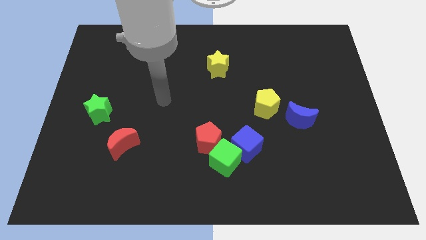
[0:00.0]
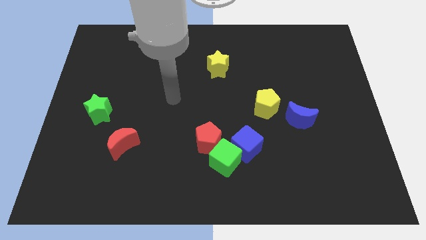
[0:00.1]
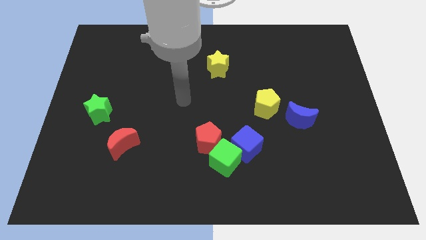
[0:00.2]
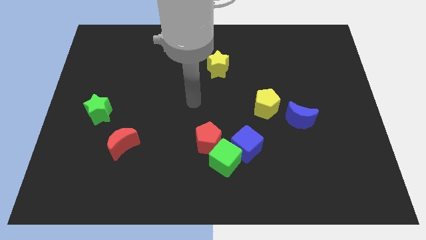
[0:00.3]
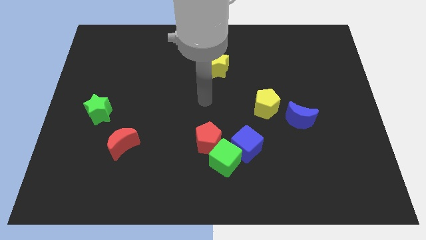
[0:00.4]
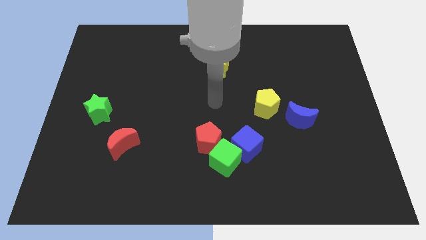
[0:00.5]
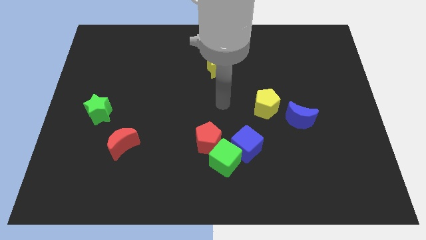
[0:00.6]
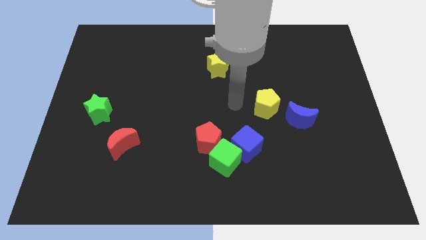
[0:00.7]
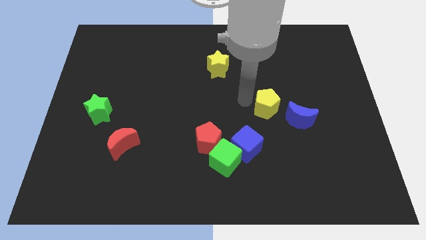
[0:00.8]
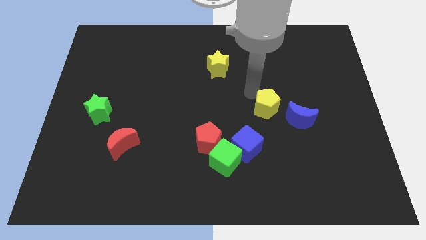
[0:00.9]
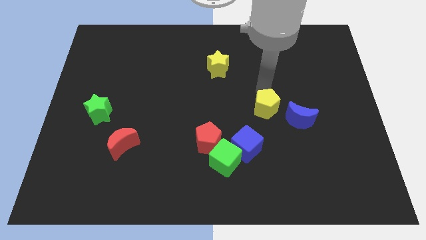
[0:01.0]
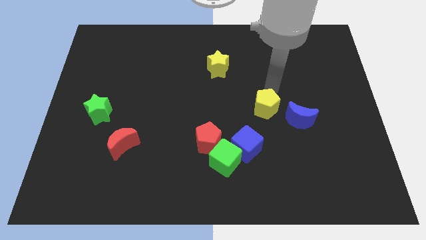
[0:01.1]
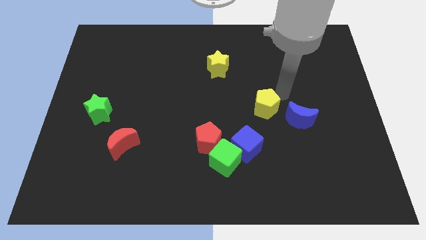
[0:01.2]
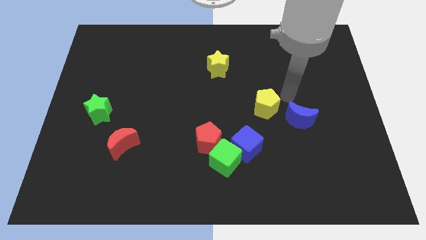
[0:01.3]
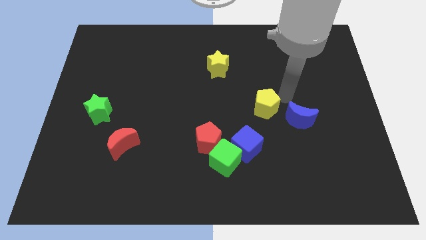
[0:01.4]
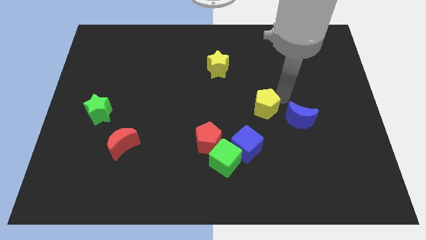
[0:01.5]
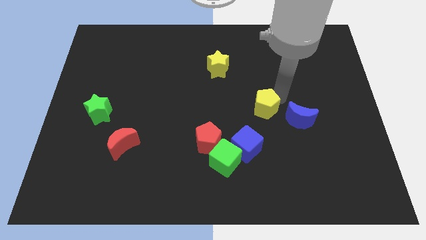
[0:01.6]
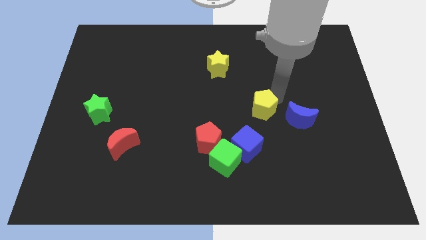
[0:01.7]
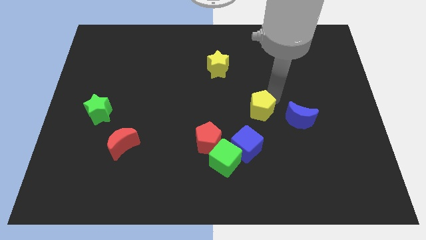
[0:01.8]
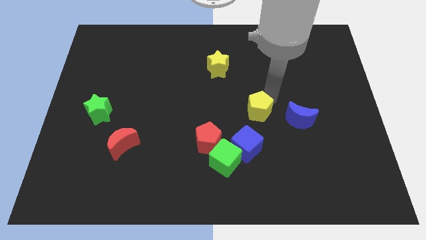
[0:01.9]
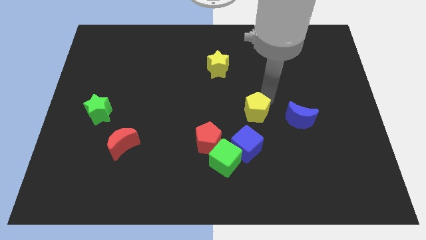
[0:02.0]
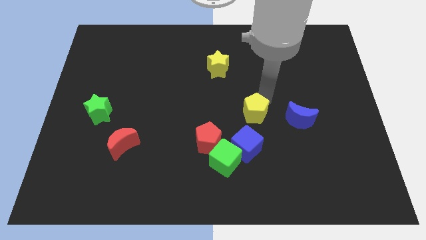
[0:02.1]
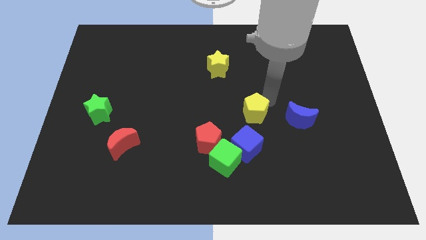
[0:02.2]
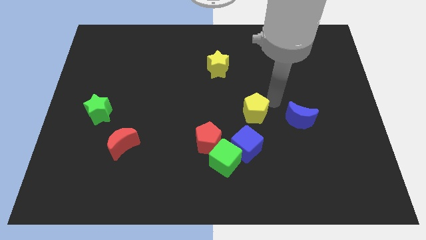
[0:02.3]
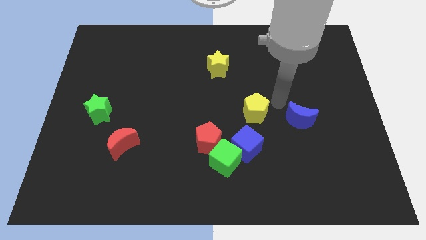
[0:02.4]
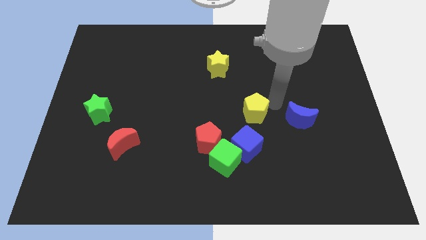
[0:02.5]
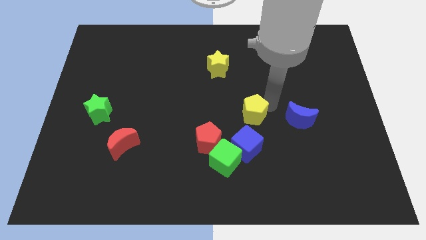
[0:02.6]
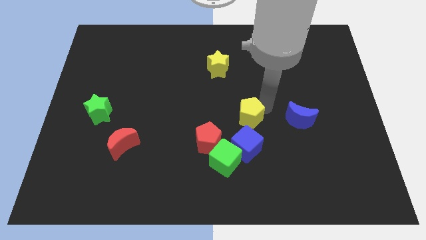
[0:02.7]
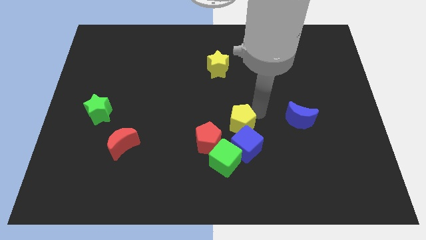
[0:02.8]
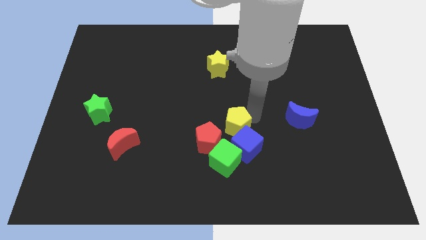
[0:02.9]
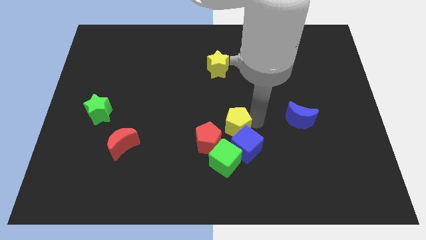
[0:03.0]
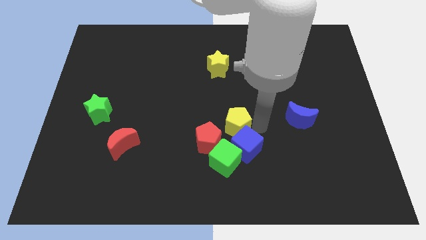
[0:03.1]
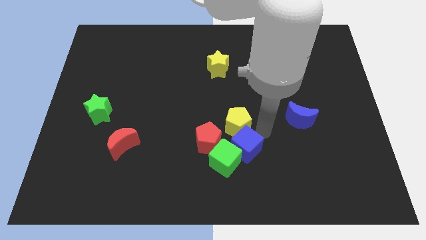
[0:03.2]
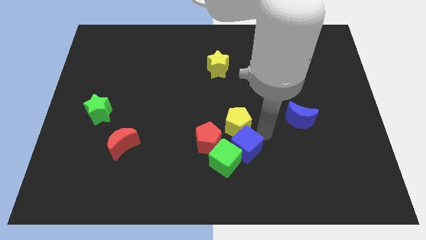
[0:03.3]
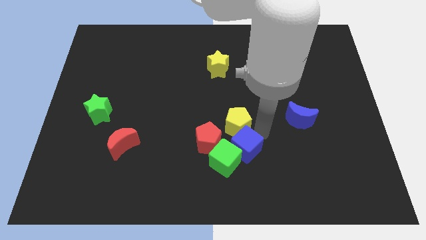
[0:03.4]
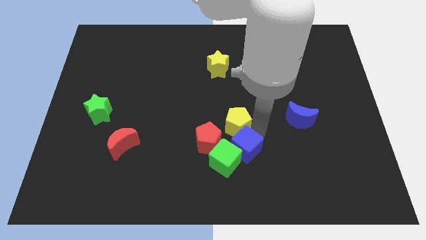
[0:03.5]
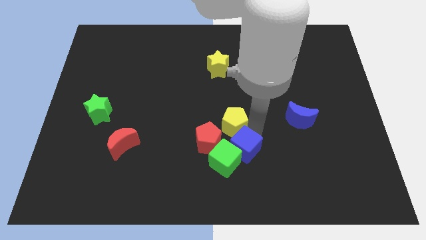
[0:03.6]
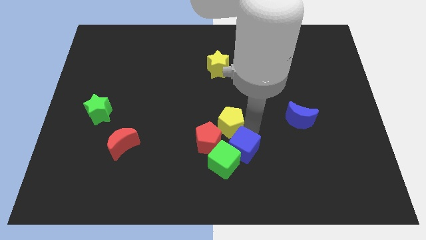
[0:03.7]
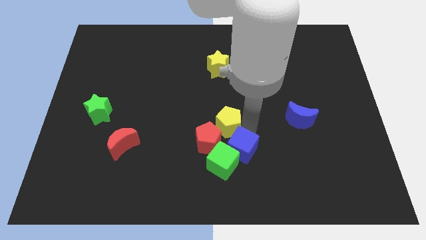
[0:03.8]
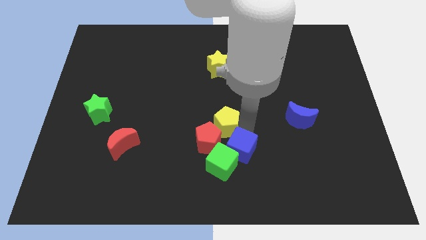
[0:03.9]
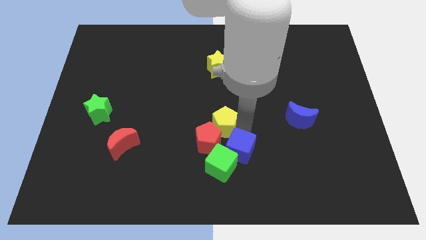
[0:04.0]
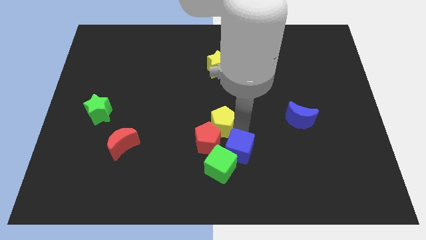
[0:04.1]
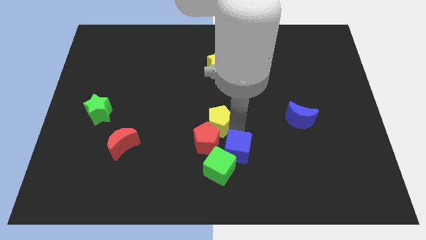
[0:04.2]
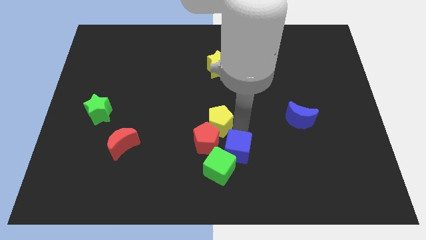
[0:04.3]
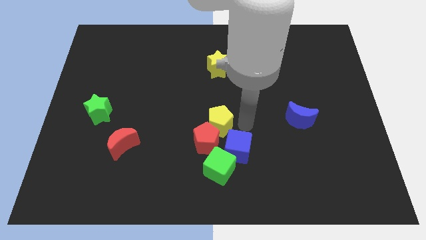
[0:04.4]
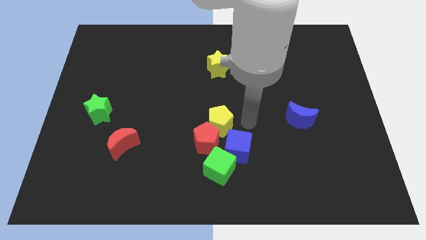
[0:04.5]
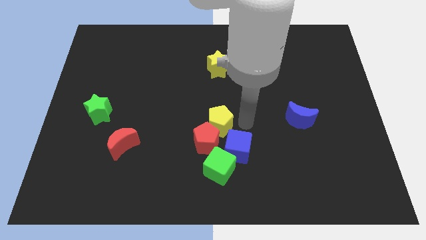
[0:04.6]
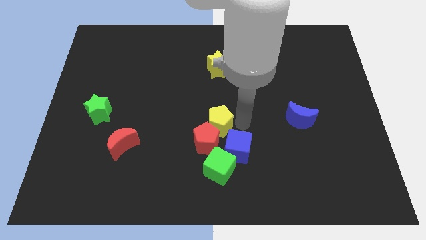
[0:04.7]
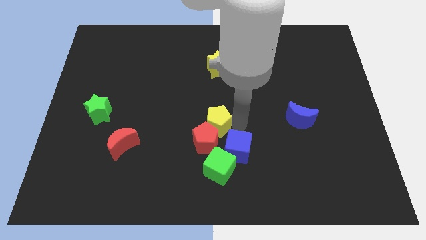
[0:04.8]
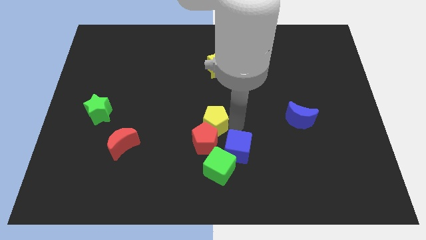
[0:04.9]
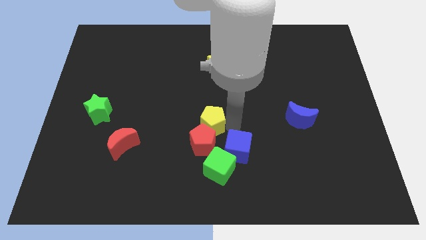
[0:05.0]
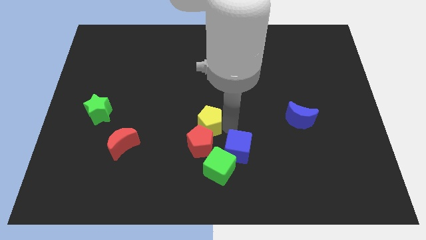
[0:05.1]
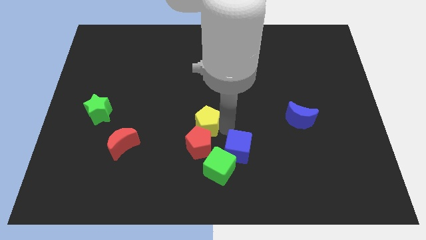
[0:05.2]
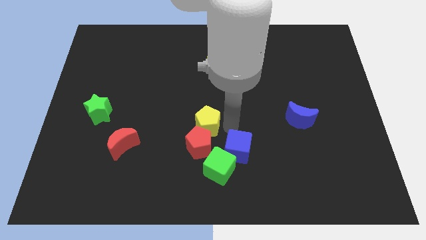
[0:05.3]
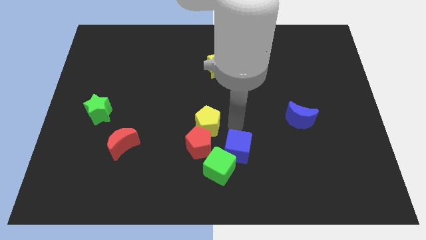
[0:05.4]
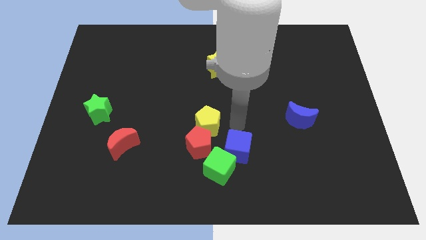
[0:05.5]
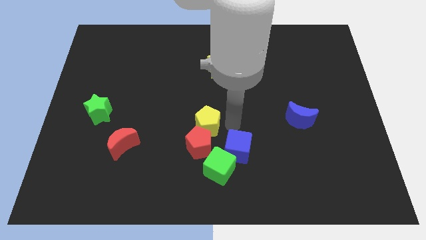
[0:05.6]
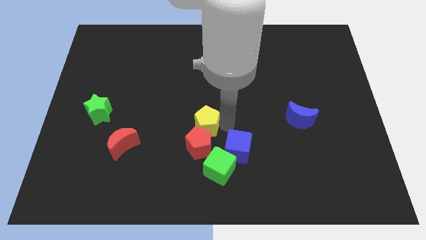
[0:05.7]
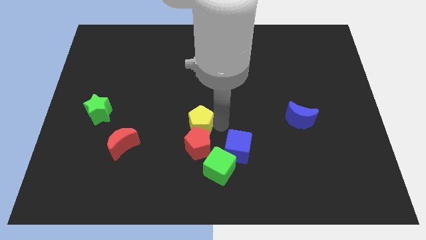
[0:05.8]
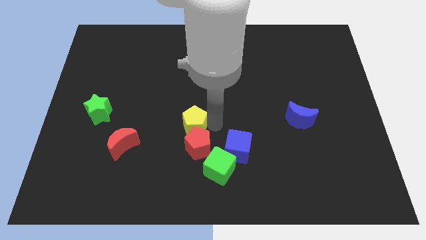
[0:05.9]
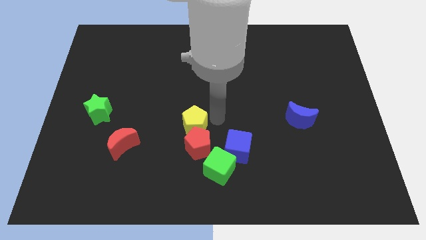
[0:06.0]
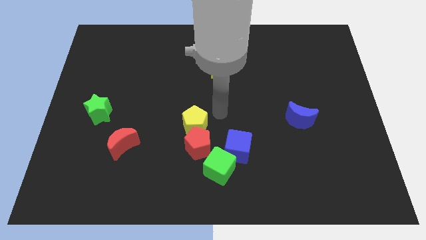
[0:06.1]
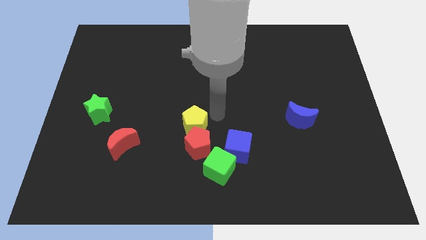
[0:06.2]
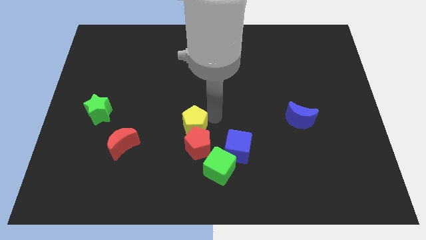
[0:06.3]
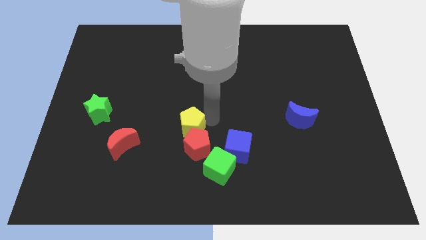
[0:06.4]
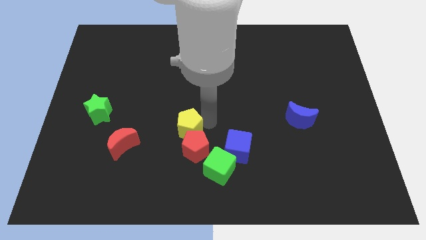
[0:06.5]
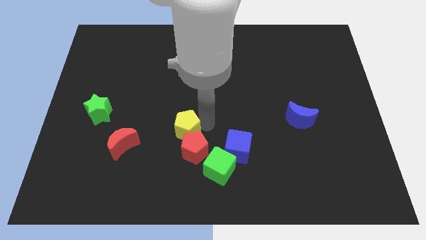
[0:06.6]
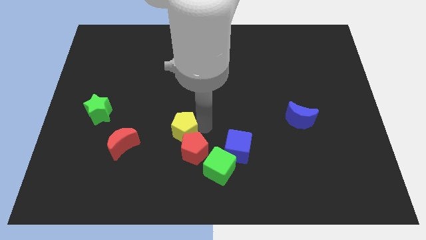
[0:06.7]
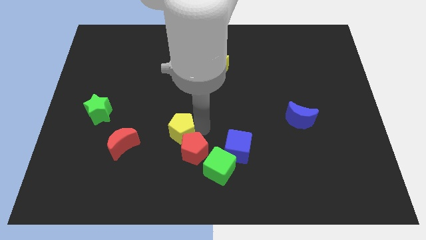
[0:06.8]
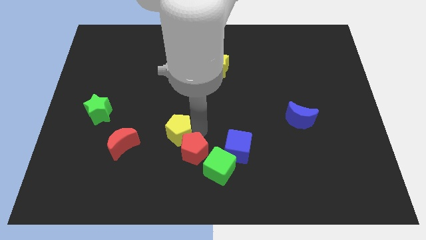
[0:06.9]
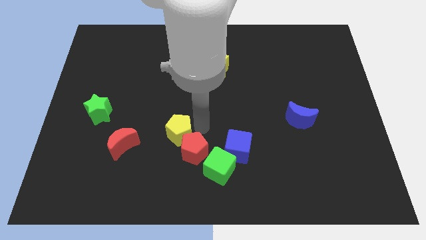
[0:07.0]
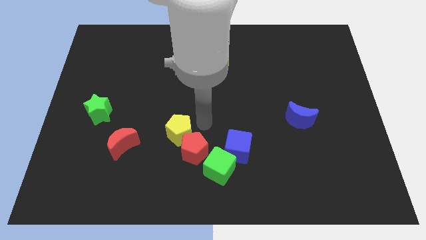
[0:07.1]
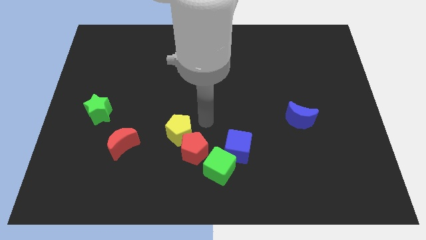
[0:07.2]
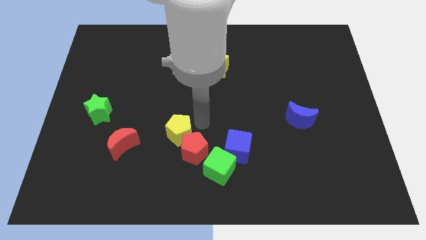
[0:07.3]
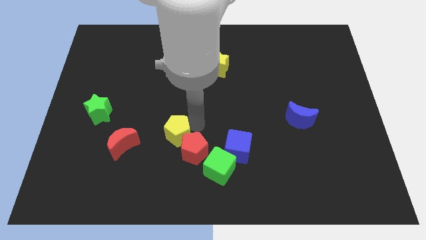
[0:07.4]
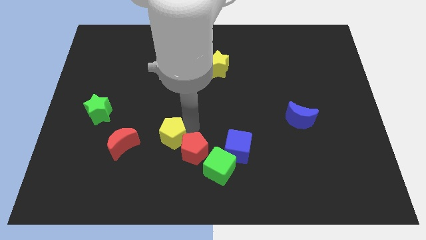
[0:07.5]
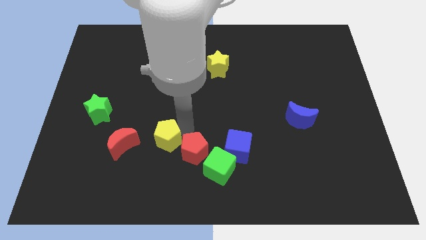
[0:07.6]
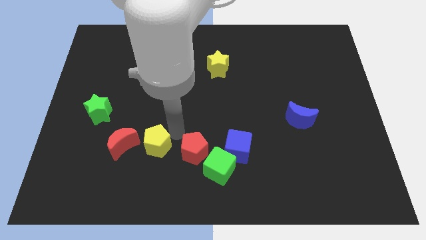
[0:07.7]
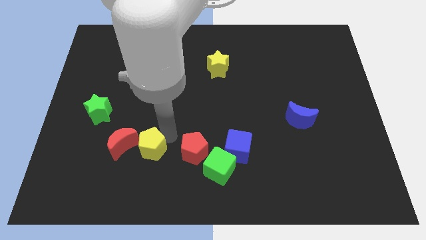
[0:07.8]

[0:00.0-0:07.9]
slide the yellow pentagon to the bottom right side of the red moon
